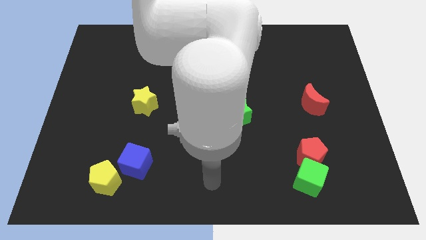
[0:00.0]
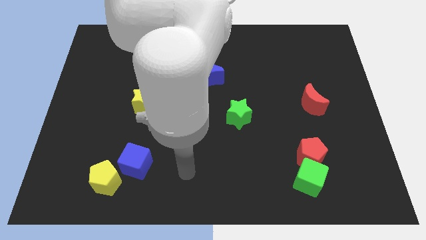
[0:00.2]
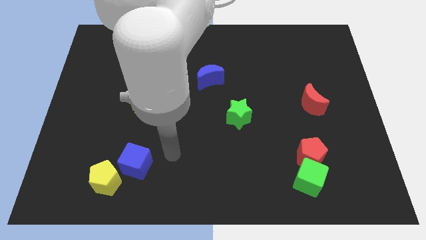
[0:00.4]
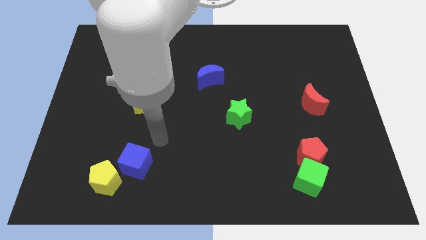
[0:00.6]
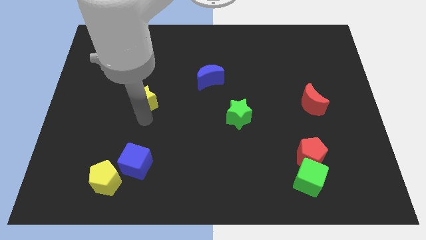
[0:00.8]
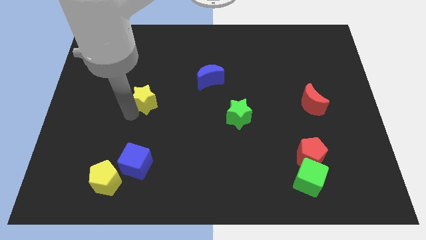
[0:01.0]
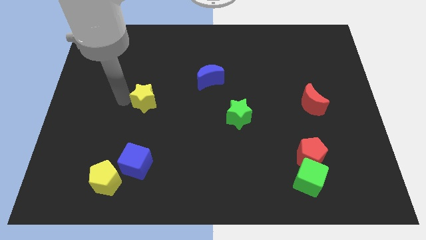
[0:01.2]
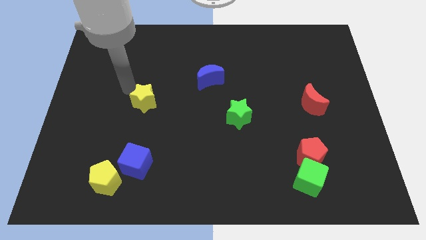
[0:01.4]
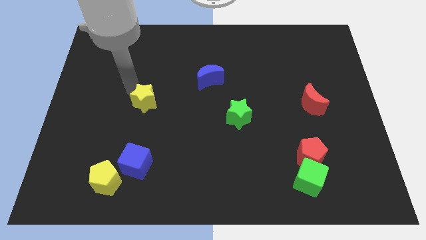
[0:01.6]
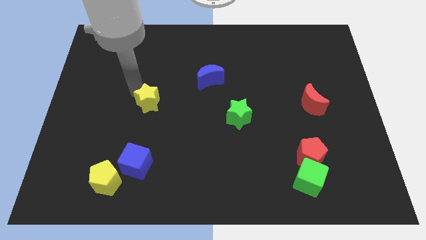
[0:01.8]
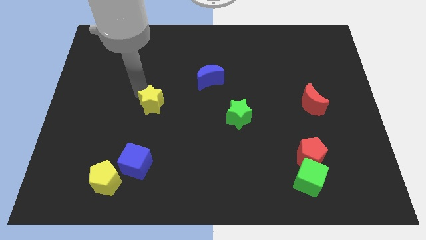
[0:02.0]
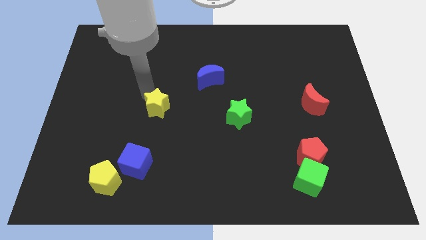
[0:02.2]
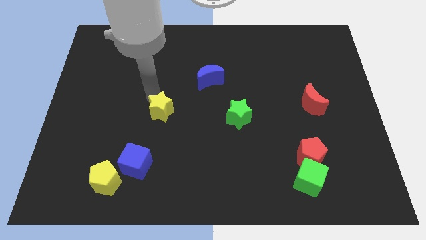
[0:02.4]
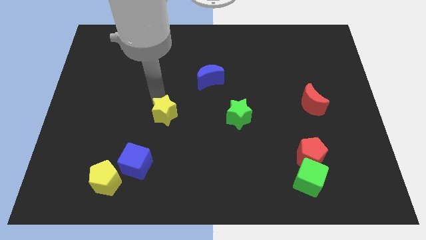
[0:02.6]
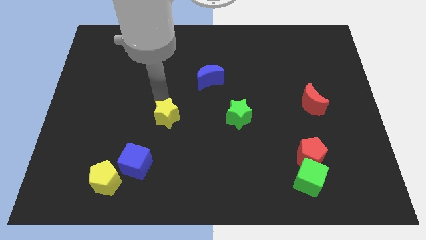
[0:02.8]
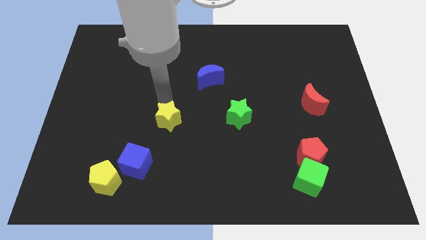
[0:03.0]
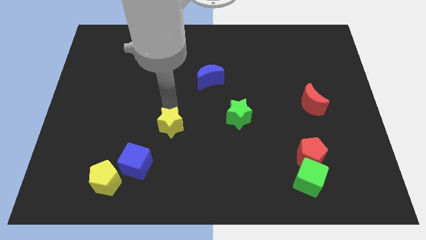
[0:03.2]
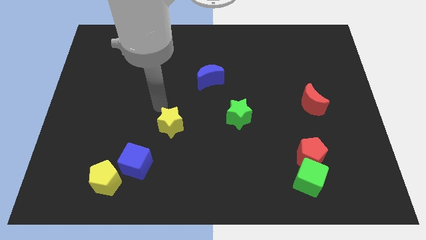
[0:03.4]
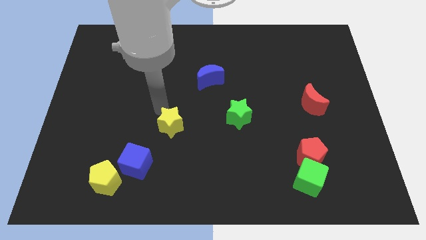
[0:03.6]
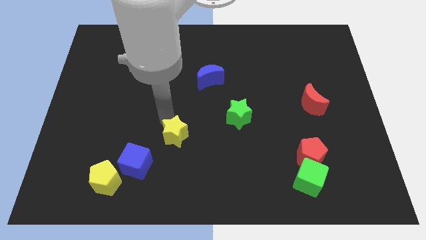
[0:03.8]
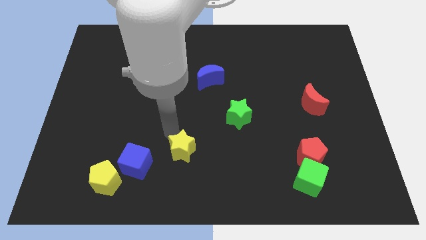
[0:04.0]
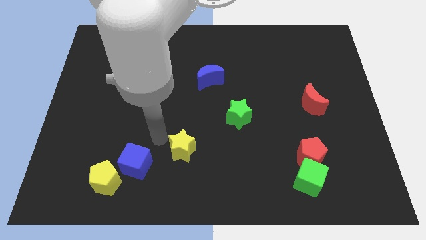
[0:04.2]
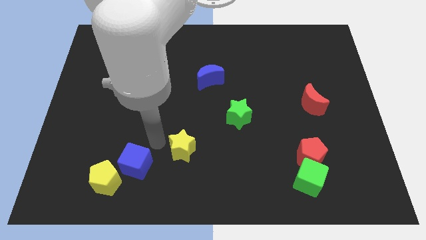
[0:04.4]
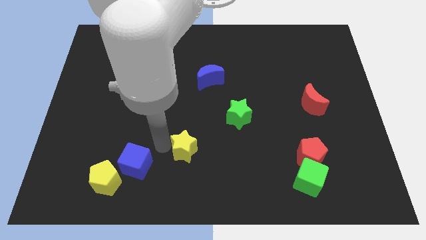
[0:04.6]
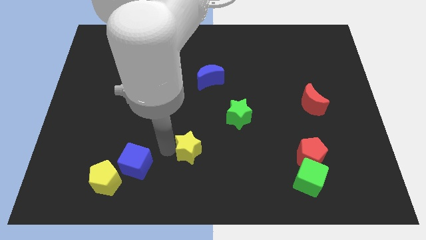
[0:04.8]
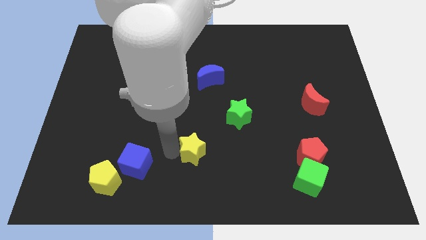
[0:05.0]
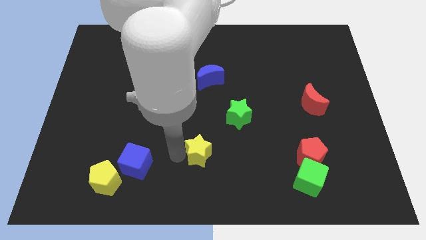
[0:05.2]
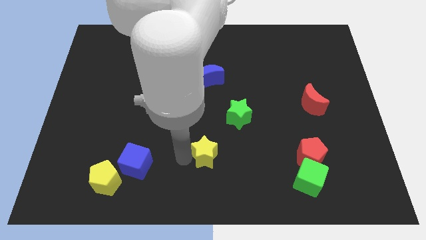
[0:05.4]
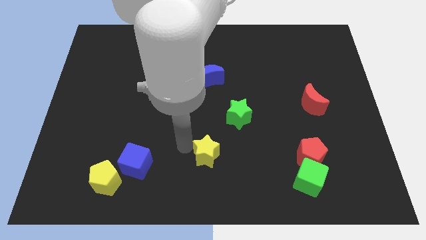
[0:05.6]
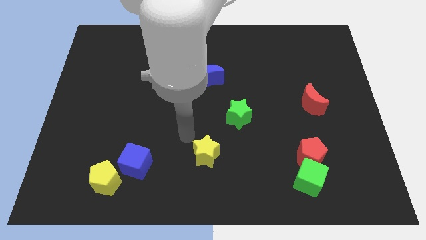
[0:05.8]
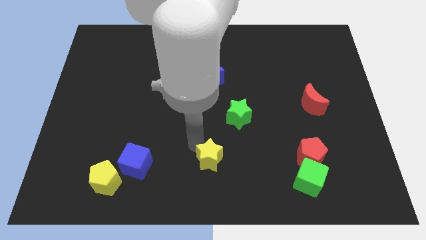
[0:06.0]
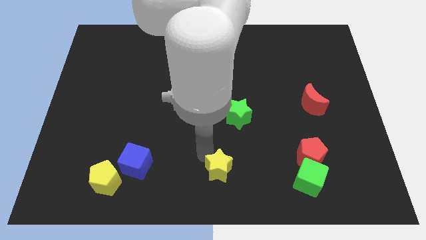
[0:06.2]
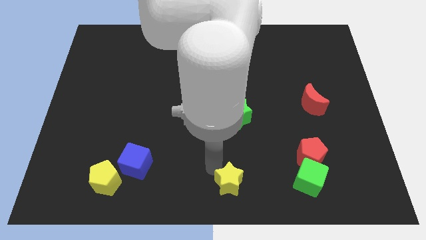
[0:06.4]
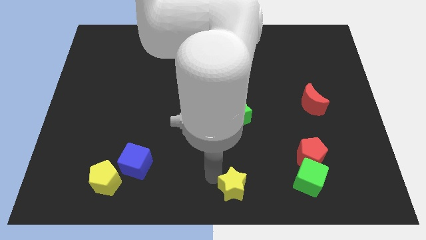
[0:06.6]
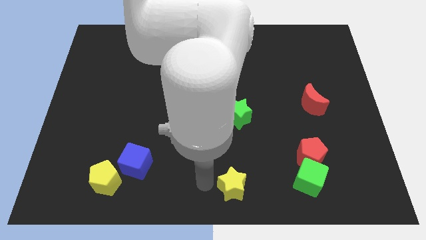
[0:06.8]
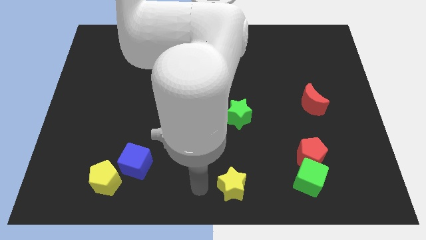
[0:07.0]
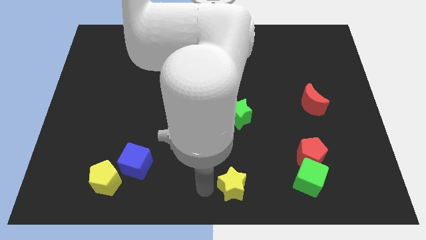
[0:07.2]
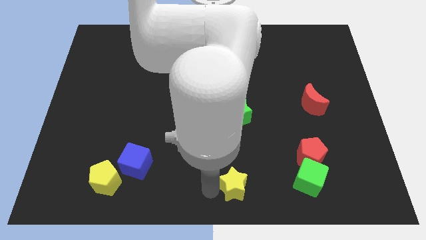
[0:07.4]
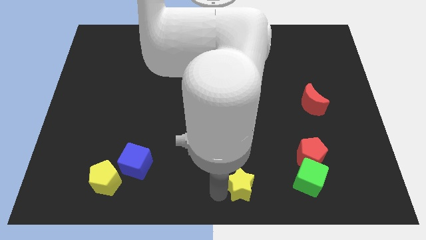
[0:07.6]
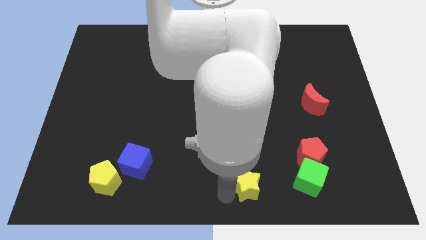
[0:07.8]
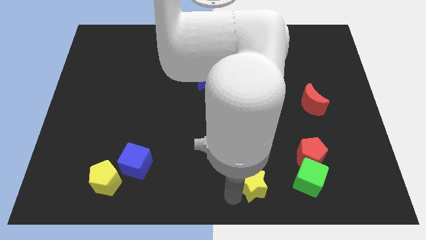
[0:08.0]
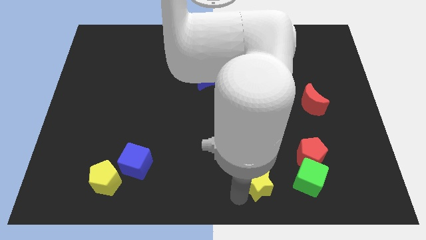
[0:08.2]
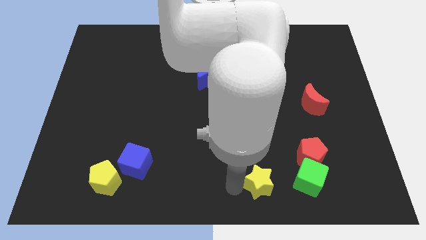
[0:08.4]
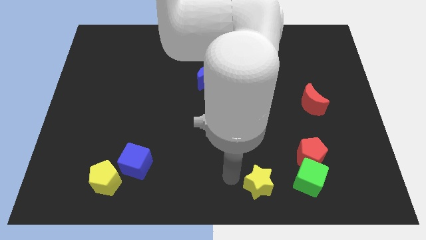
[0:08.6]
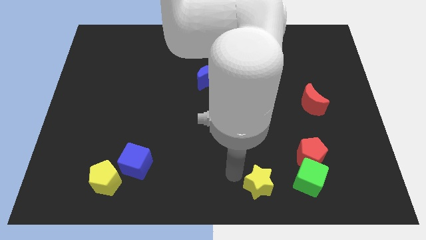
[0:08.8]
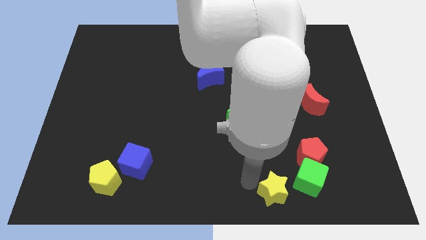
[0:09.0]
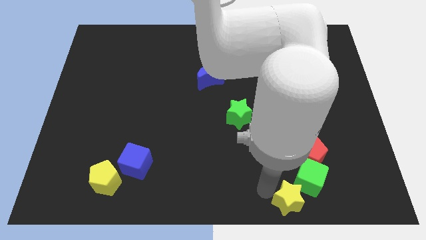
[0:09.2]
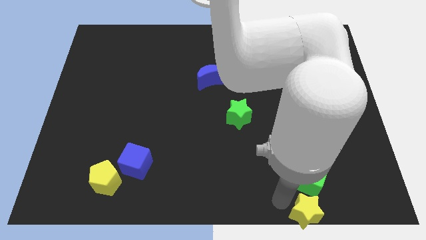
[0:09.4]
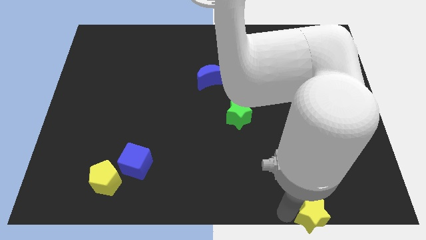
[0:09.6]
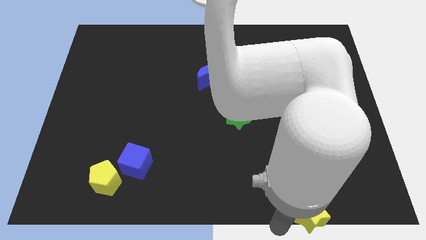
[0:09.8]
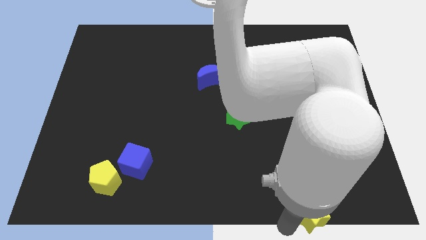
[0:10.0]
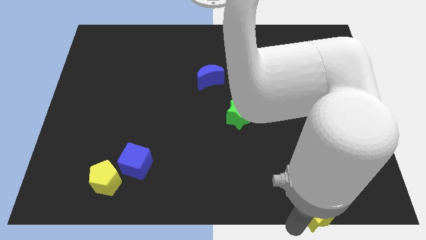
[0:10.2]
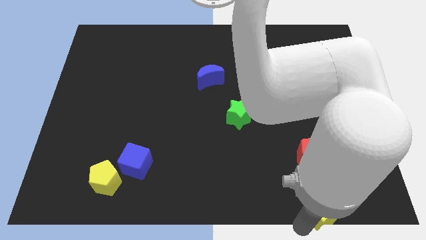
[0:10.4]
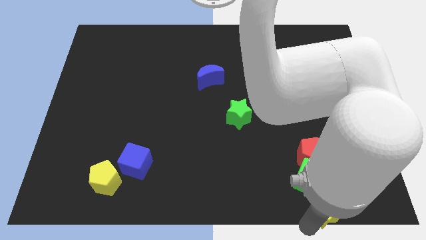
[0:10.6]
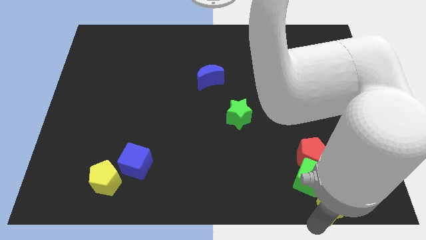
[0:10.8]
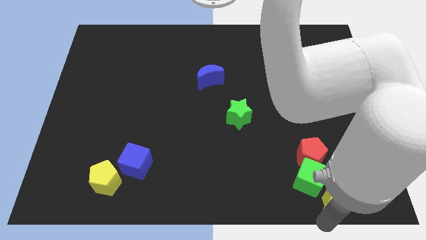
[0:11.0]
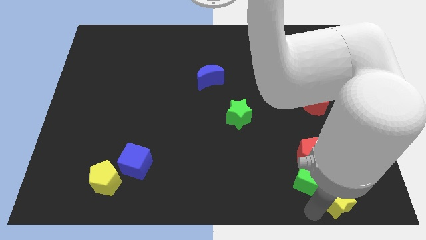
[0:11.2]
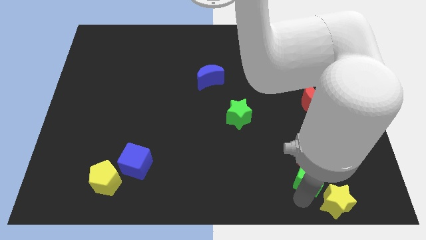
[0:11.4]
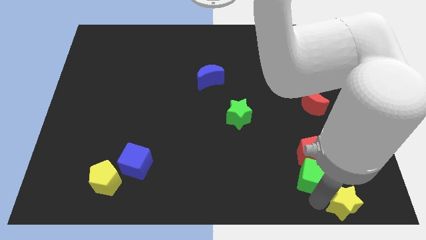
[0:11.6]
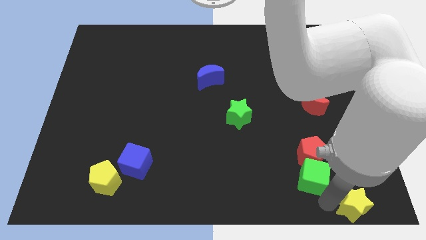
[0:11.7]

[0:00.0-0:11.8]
move the yellow star to the lower right corner

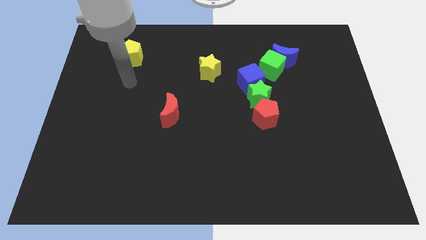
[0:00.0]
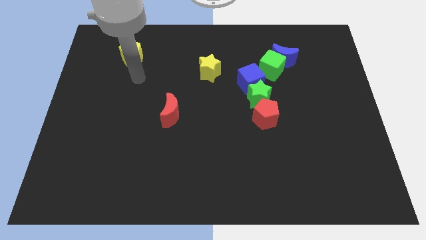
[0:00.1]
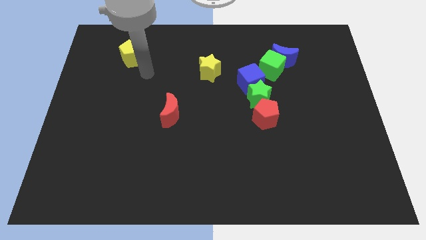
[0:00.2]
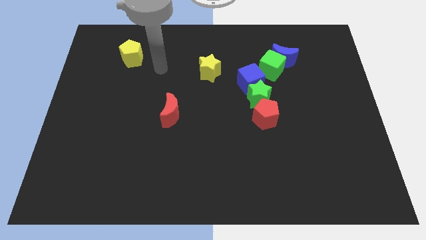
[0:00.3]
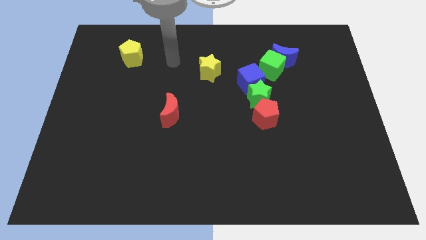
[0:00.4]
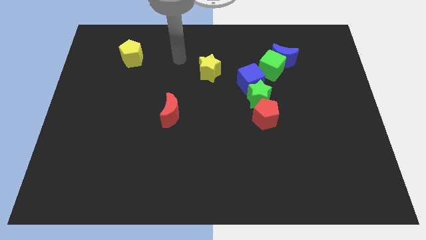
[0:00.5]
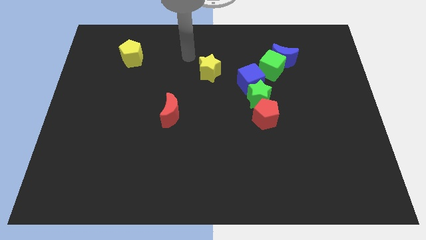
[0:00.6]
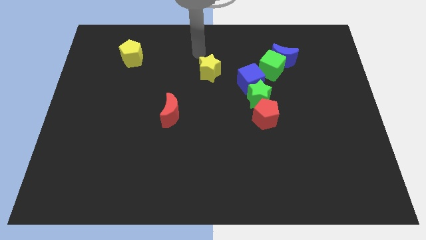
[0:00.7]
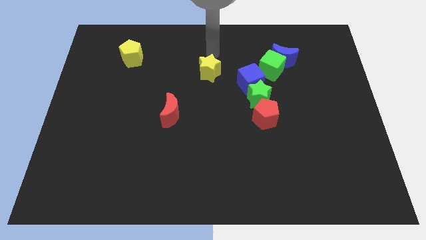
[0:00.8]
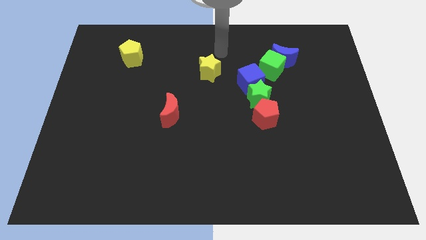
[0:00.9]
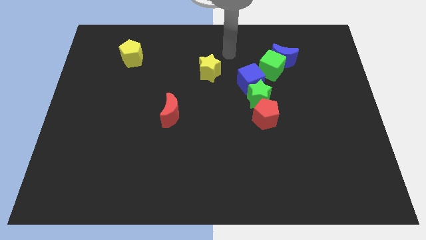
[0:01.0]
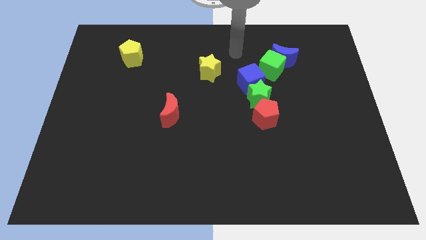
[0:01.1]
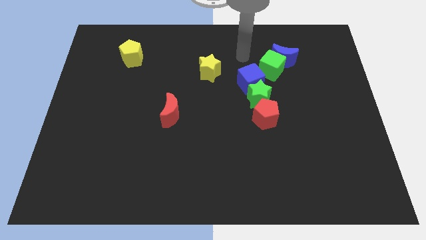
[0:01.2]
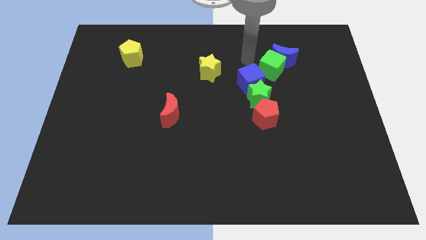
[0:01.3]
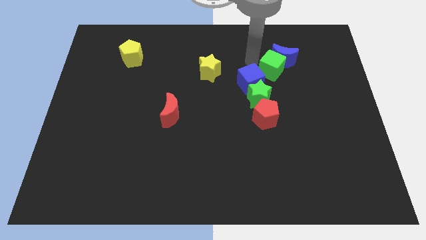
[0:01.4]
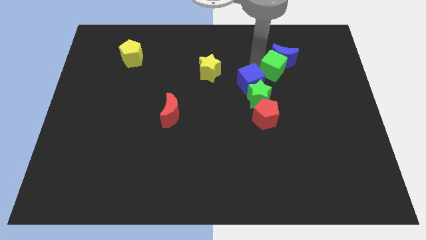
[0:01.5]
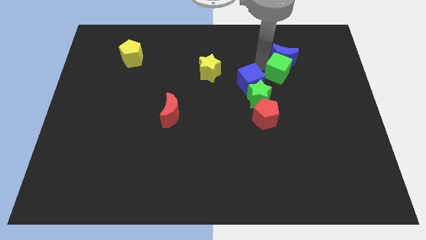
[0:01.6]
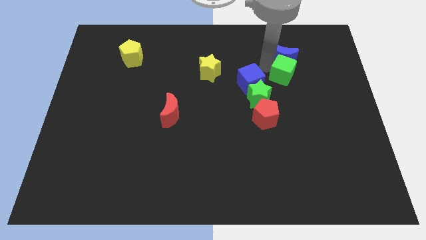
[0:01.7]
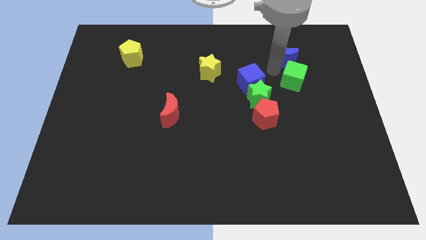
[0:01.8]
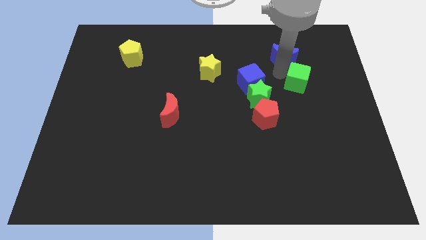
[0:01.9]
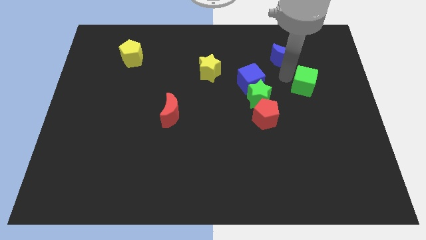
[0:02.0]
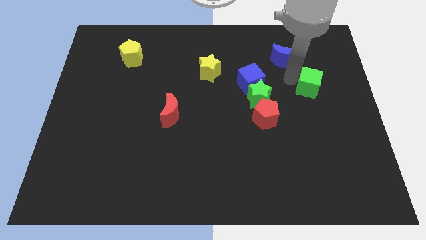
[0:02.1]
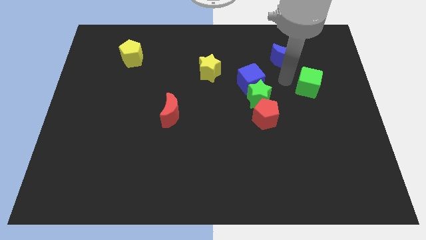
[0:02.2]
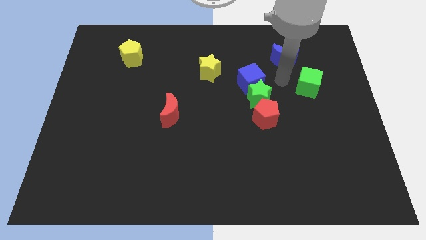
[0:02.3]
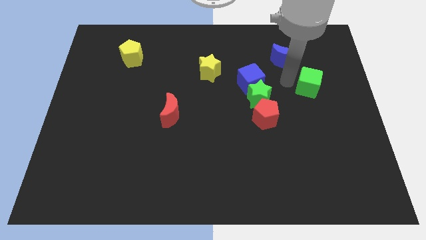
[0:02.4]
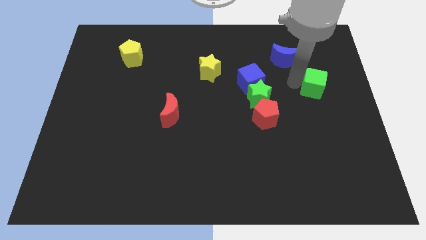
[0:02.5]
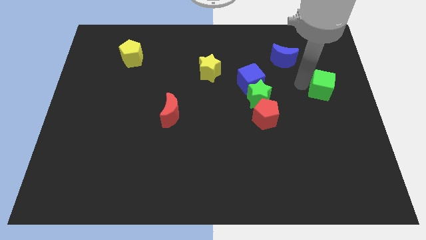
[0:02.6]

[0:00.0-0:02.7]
slide the green cube to the center right
